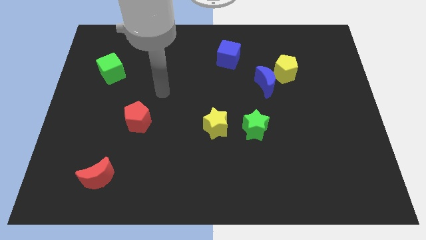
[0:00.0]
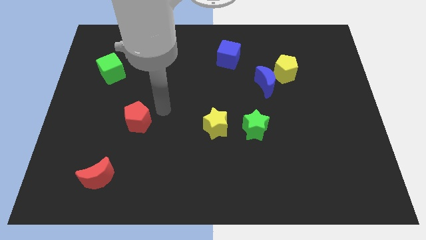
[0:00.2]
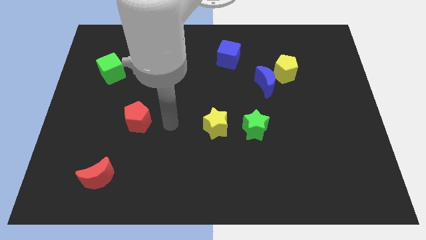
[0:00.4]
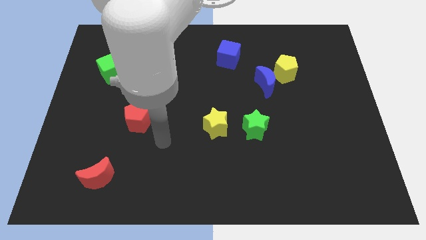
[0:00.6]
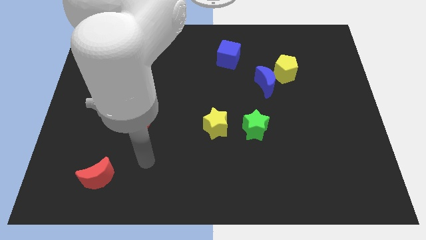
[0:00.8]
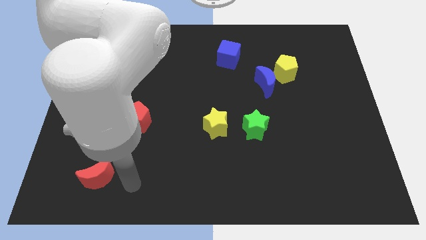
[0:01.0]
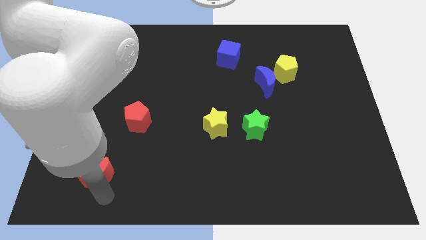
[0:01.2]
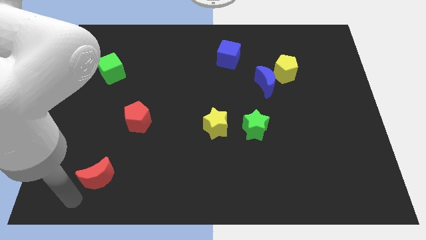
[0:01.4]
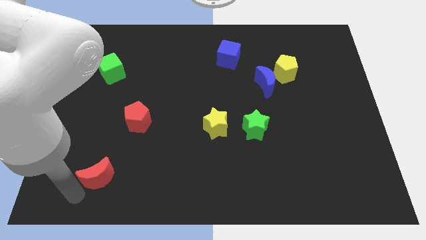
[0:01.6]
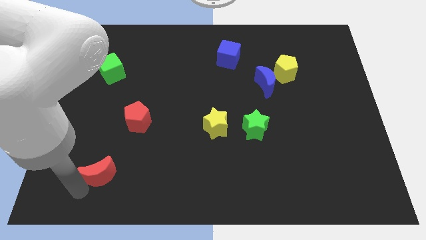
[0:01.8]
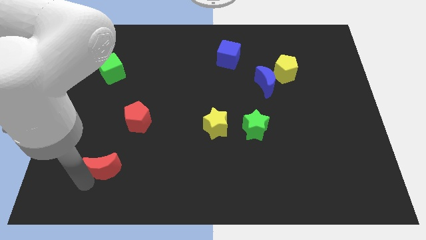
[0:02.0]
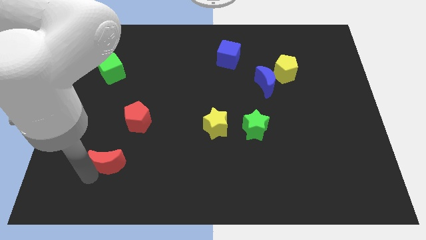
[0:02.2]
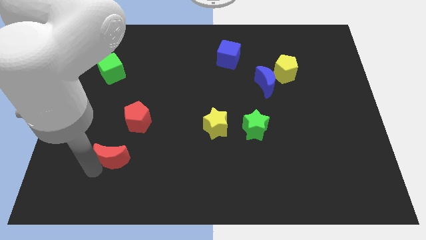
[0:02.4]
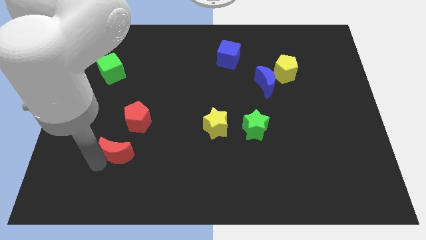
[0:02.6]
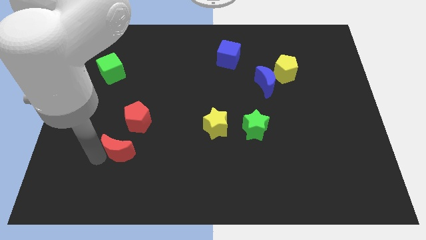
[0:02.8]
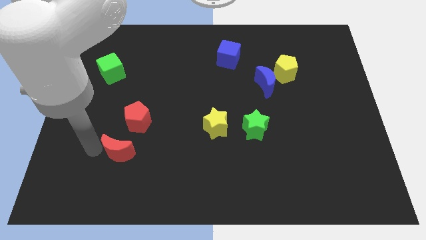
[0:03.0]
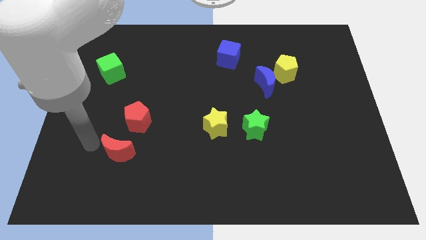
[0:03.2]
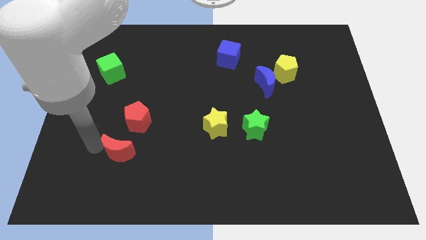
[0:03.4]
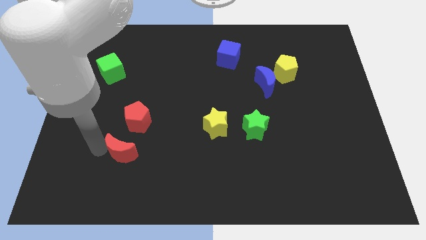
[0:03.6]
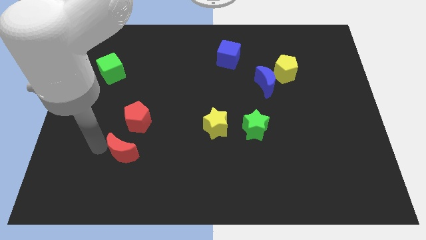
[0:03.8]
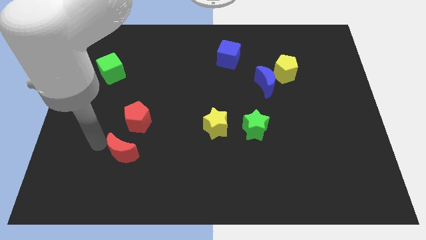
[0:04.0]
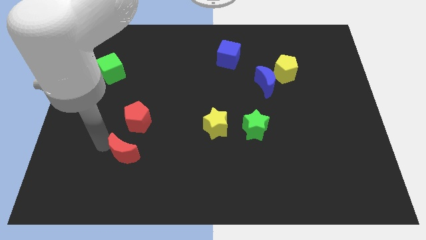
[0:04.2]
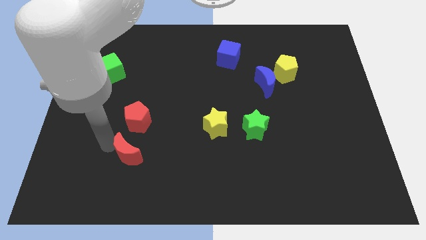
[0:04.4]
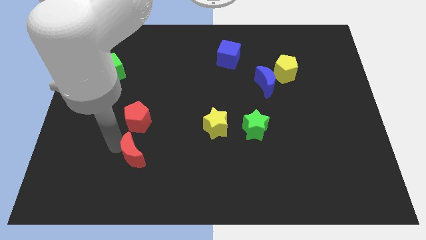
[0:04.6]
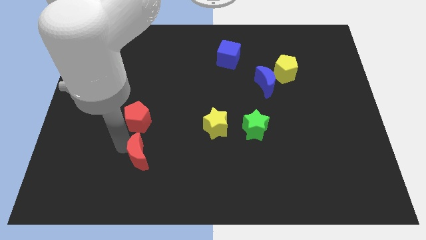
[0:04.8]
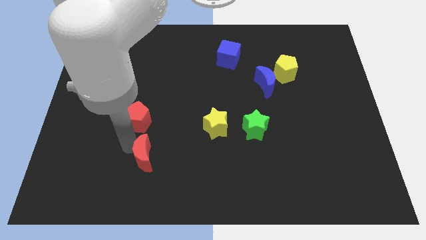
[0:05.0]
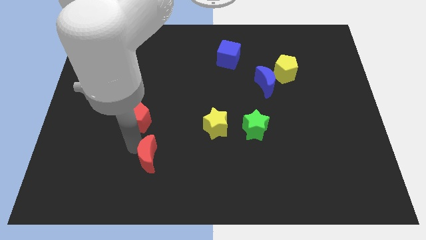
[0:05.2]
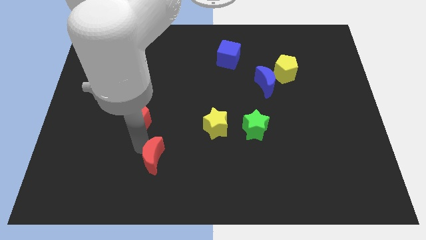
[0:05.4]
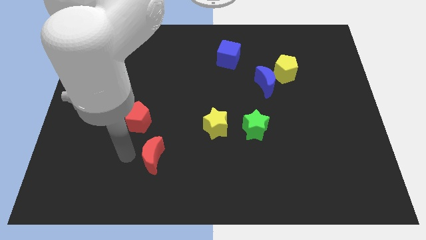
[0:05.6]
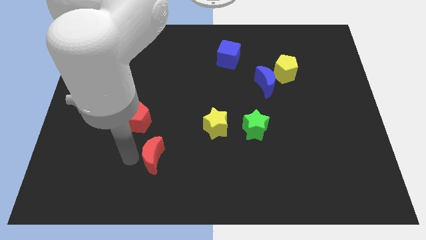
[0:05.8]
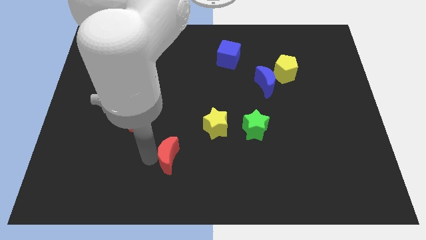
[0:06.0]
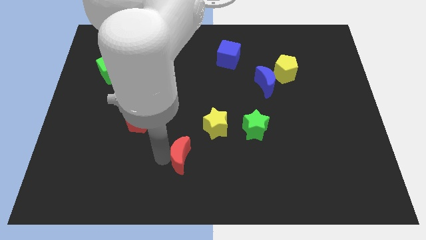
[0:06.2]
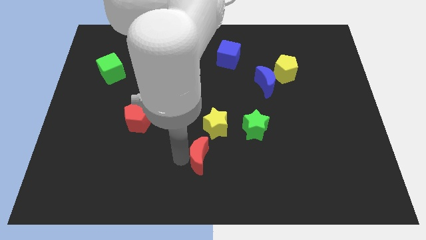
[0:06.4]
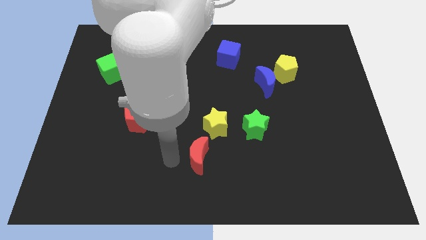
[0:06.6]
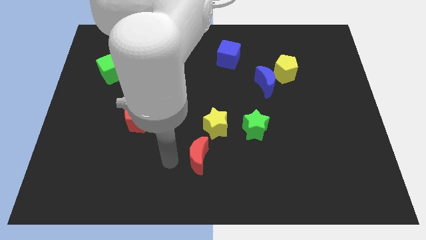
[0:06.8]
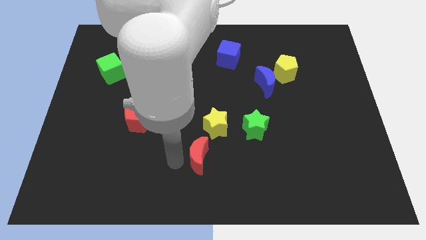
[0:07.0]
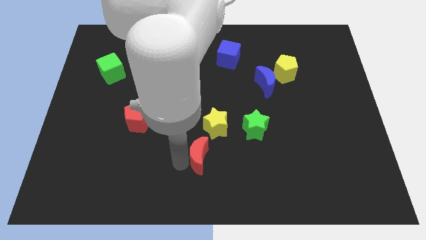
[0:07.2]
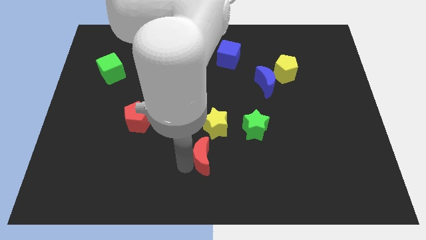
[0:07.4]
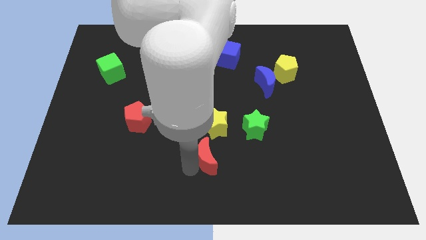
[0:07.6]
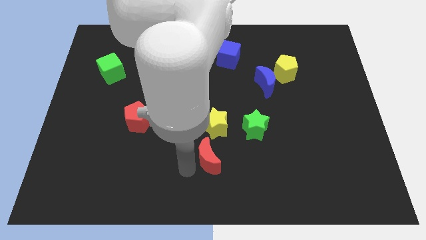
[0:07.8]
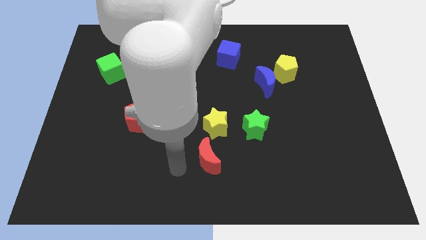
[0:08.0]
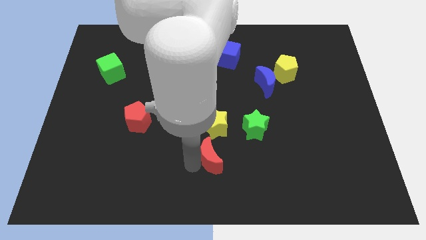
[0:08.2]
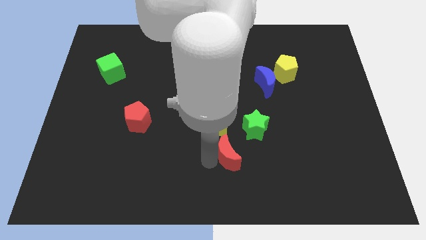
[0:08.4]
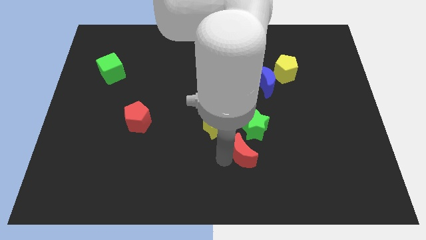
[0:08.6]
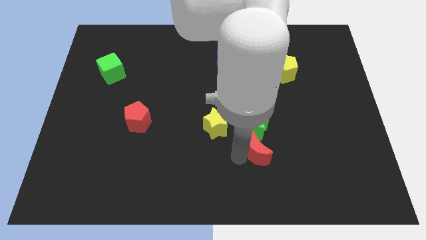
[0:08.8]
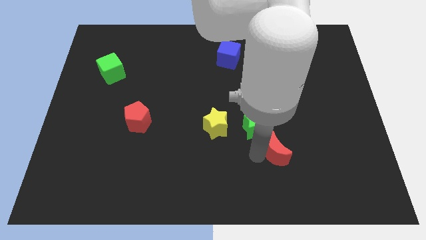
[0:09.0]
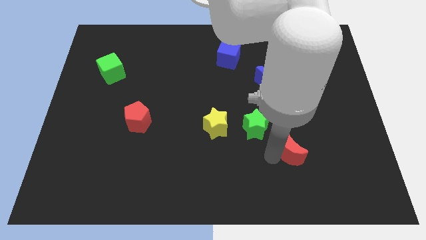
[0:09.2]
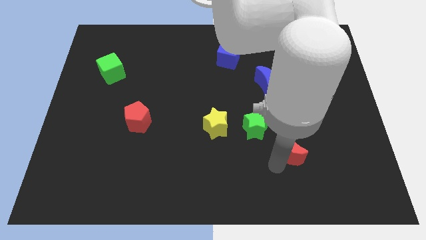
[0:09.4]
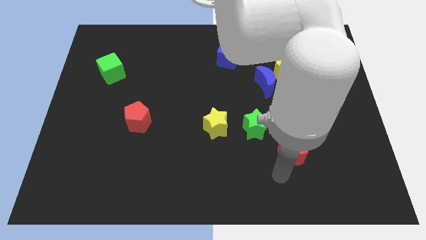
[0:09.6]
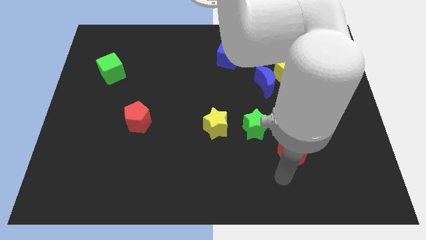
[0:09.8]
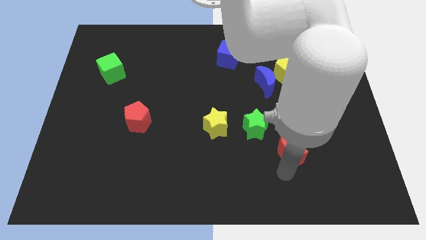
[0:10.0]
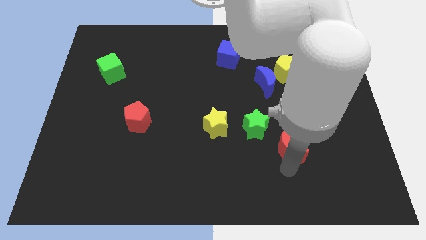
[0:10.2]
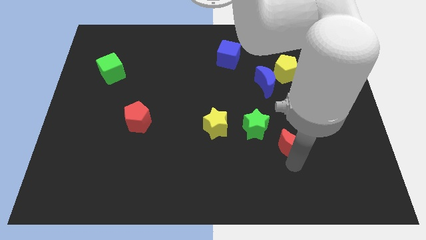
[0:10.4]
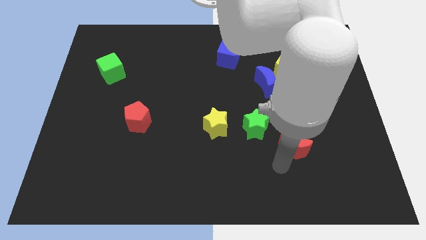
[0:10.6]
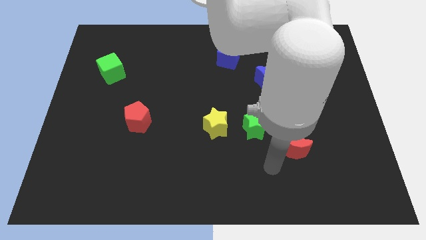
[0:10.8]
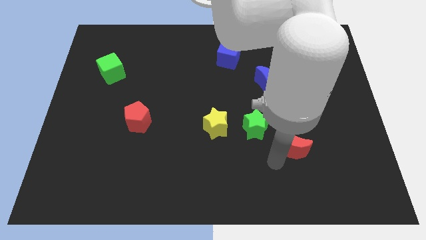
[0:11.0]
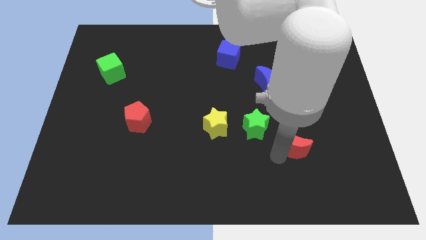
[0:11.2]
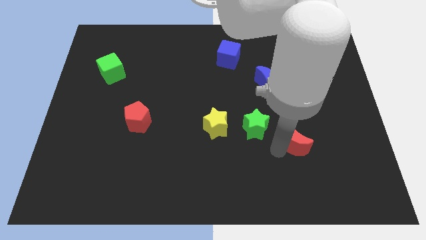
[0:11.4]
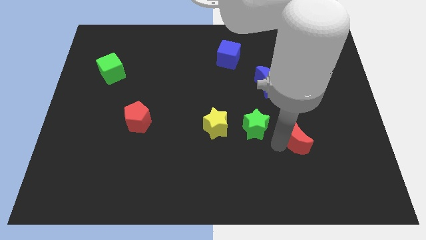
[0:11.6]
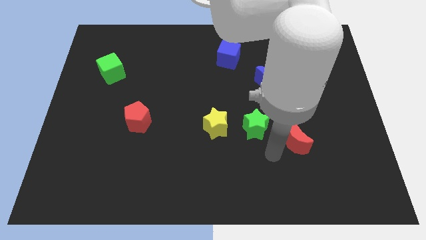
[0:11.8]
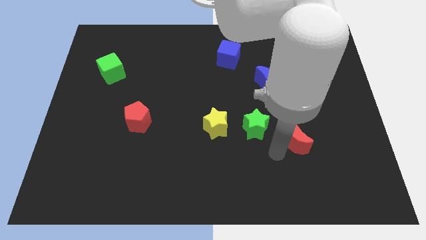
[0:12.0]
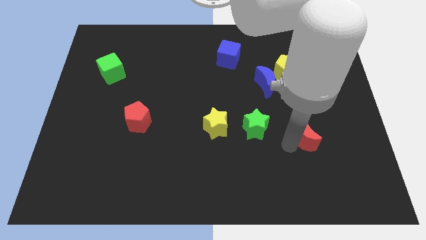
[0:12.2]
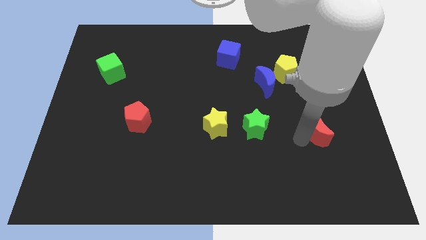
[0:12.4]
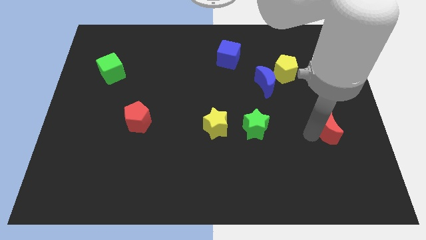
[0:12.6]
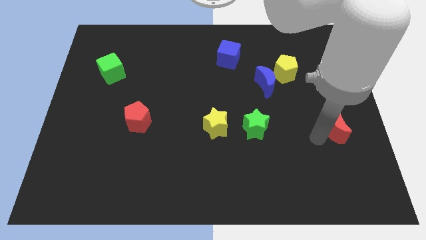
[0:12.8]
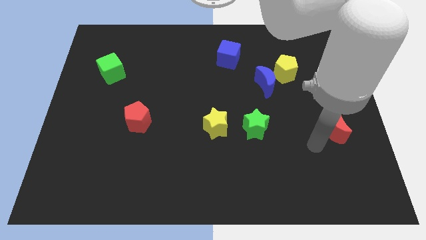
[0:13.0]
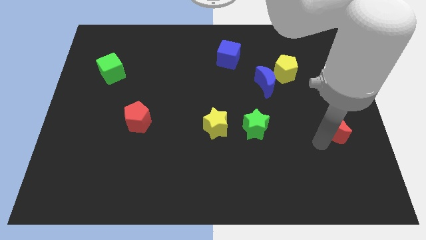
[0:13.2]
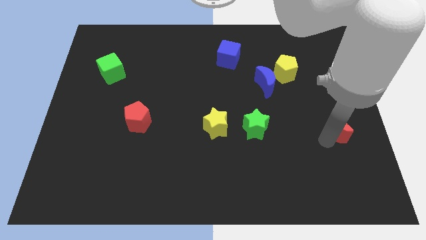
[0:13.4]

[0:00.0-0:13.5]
move the red moon to the right side of the board
